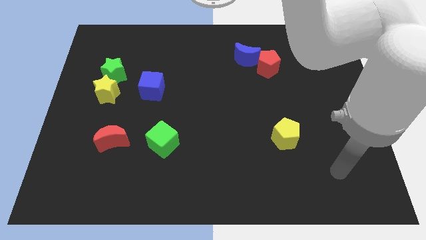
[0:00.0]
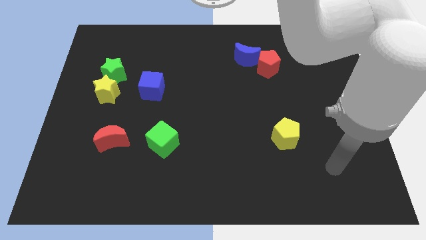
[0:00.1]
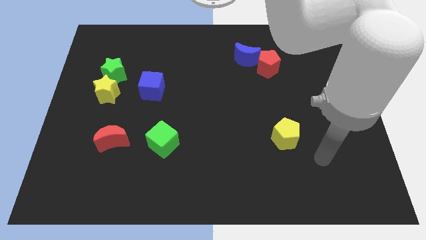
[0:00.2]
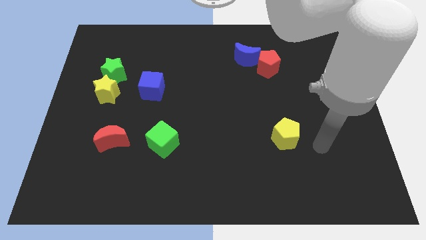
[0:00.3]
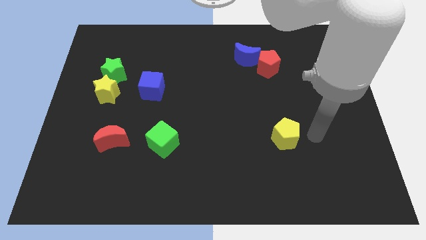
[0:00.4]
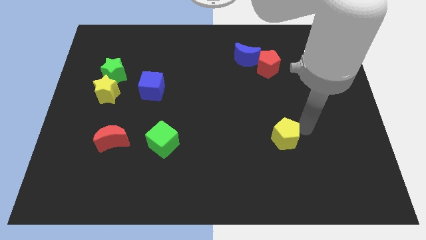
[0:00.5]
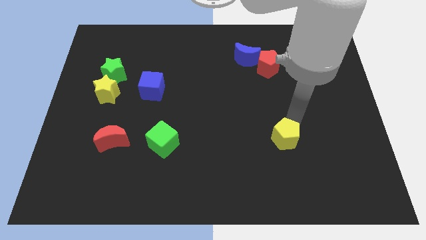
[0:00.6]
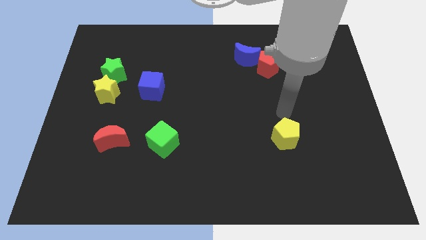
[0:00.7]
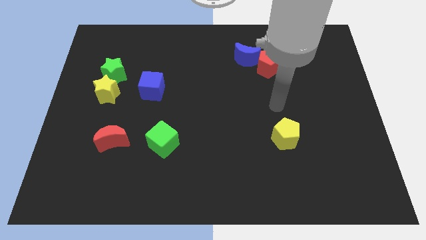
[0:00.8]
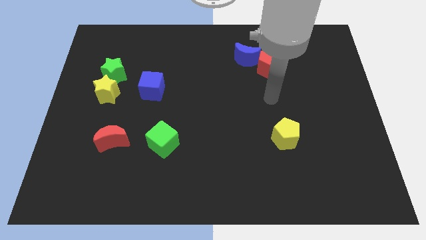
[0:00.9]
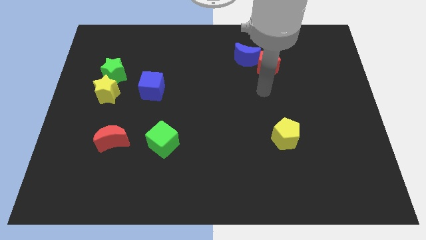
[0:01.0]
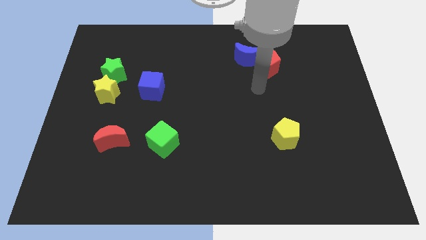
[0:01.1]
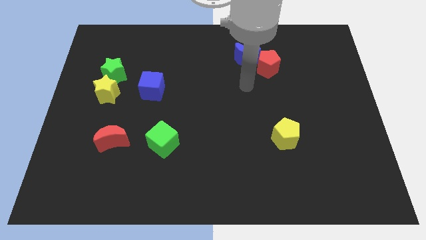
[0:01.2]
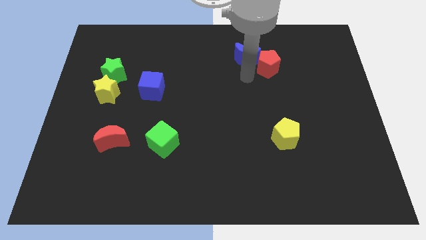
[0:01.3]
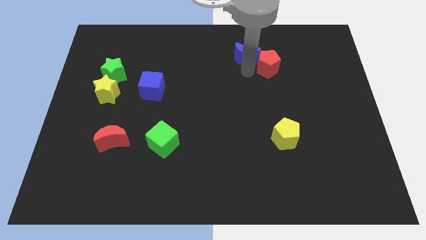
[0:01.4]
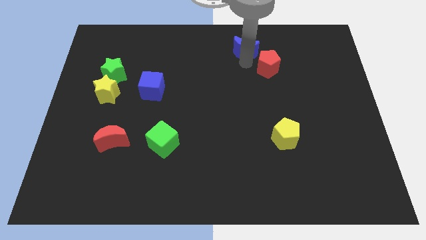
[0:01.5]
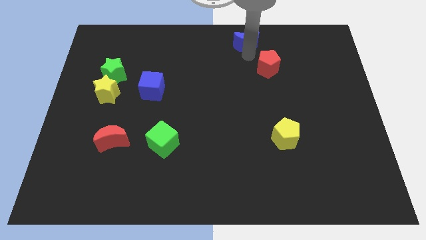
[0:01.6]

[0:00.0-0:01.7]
move the red pentagon away from the blue moon

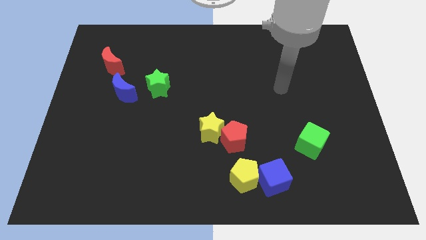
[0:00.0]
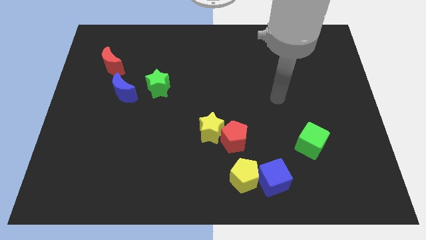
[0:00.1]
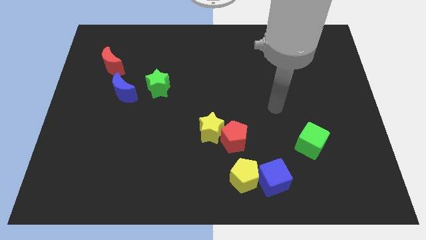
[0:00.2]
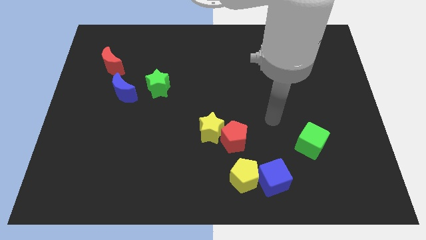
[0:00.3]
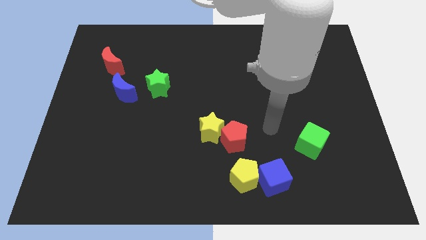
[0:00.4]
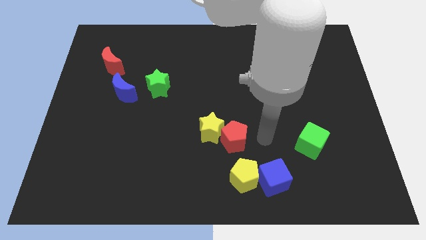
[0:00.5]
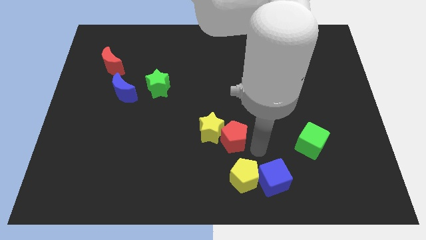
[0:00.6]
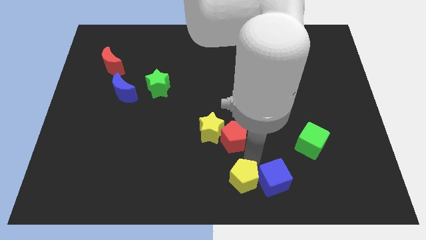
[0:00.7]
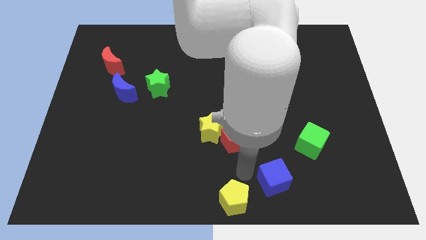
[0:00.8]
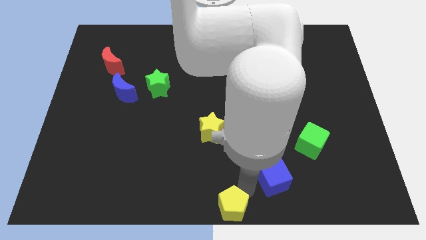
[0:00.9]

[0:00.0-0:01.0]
move the blue cube away from the yellow pentagon

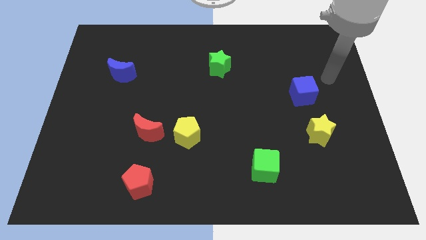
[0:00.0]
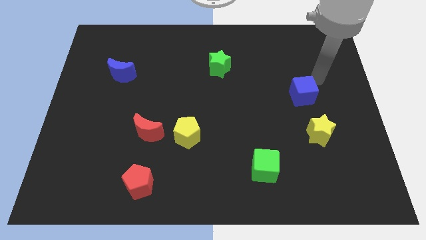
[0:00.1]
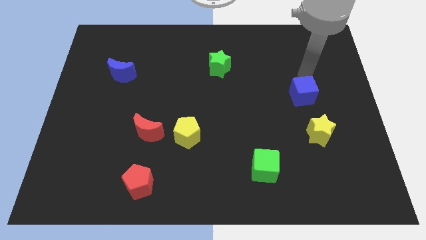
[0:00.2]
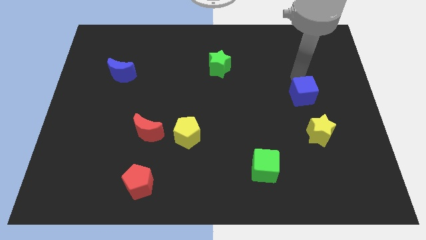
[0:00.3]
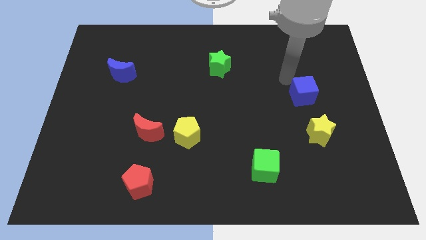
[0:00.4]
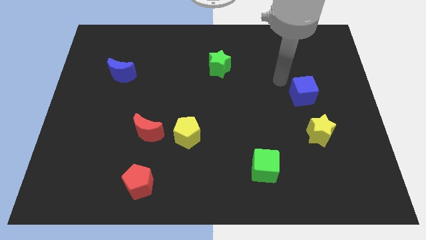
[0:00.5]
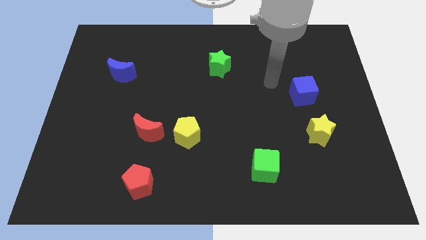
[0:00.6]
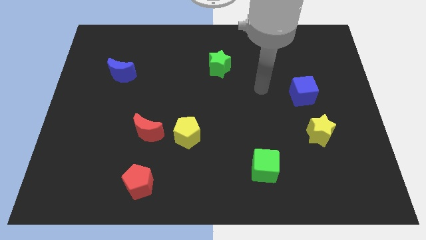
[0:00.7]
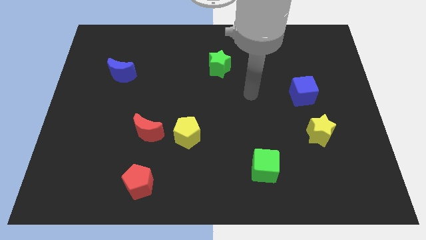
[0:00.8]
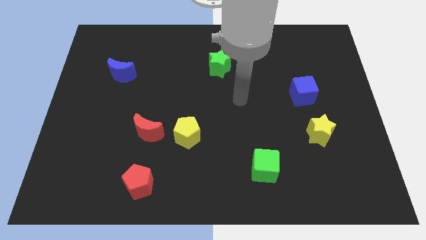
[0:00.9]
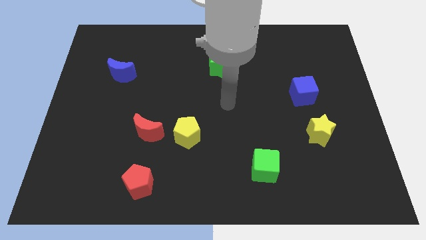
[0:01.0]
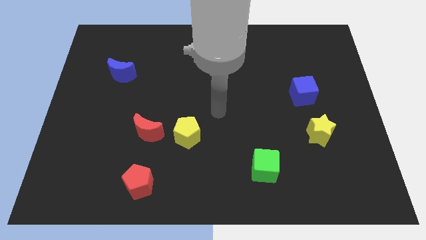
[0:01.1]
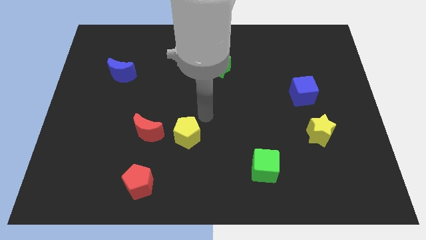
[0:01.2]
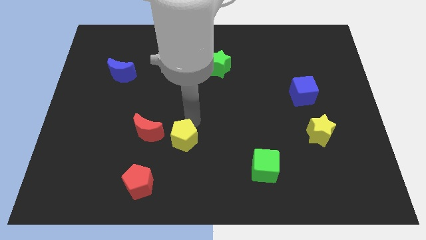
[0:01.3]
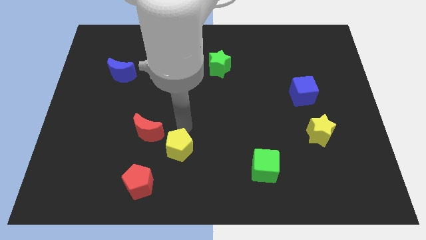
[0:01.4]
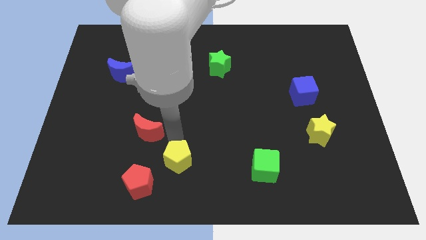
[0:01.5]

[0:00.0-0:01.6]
pull the red moon apart from the yellow pentagon

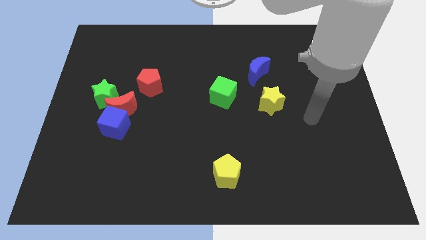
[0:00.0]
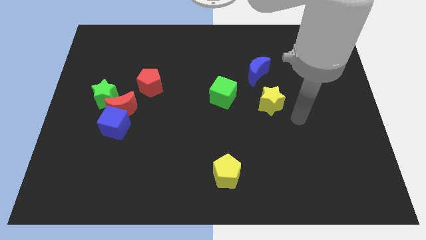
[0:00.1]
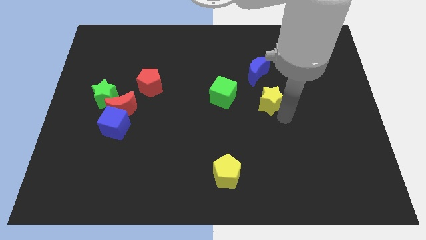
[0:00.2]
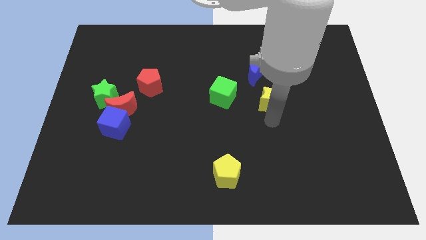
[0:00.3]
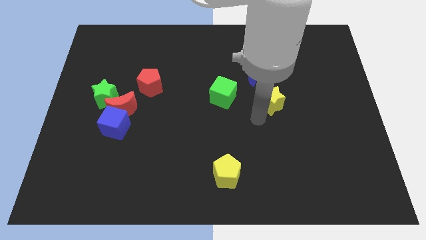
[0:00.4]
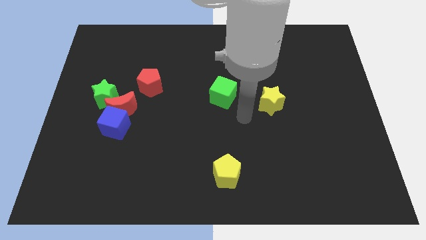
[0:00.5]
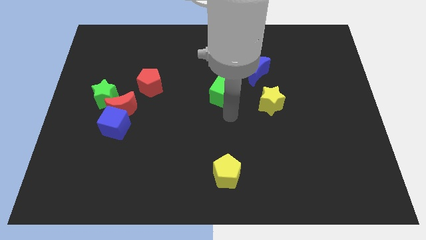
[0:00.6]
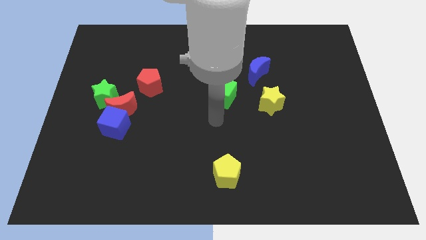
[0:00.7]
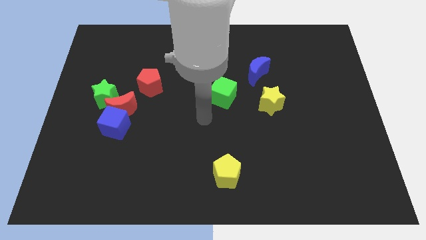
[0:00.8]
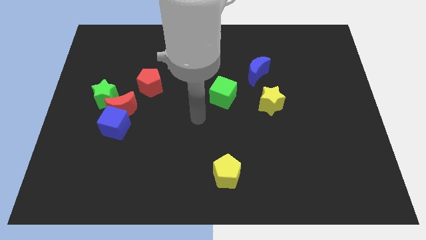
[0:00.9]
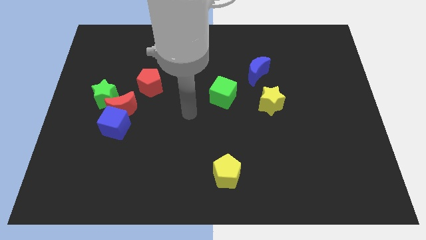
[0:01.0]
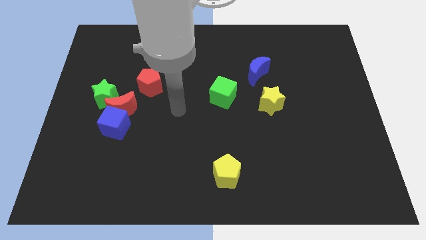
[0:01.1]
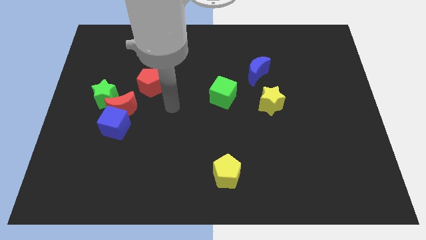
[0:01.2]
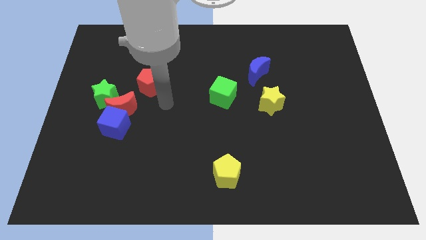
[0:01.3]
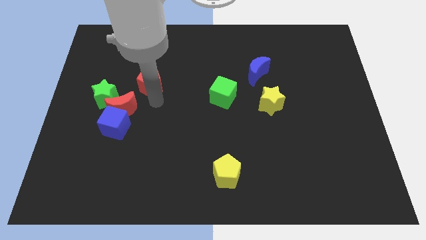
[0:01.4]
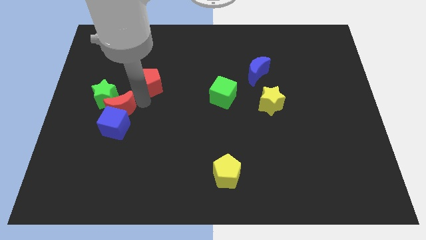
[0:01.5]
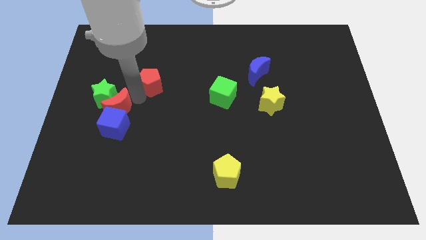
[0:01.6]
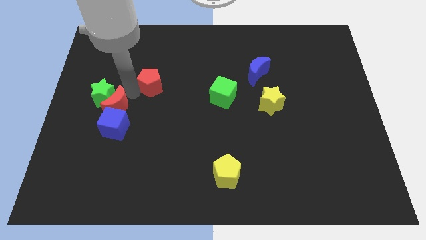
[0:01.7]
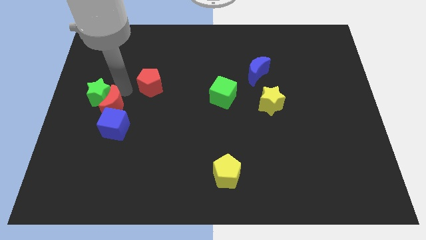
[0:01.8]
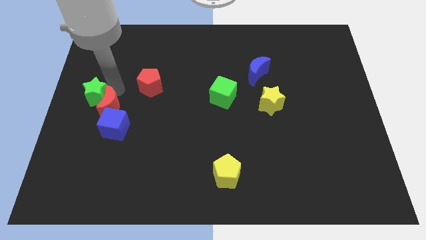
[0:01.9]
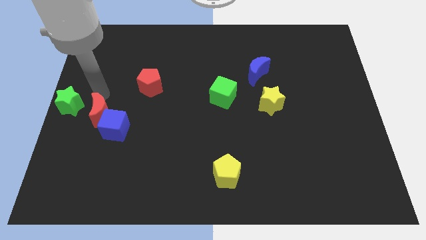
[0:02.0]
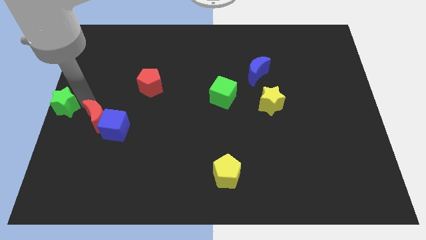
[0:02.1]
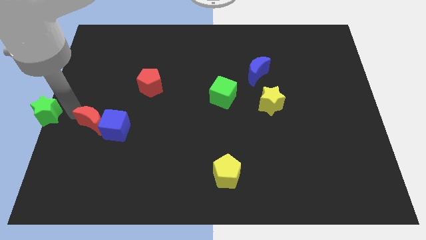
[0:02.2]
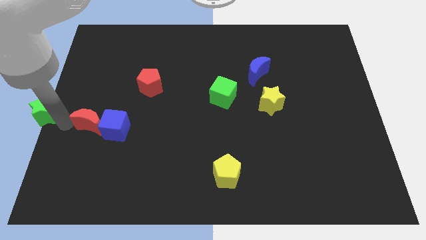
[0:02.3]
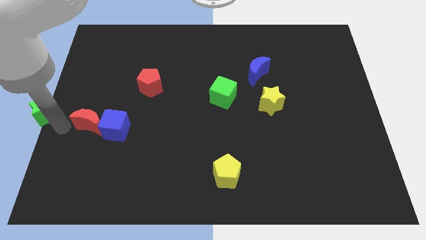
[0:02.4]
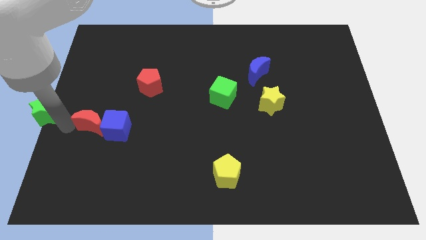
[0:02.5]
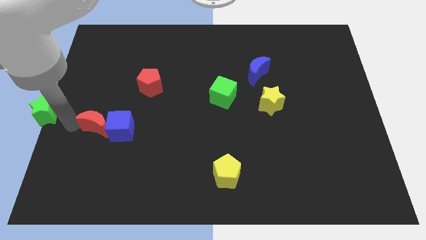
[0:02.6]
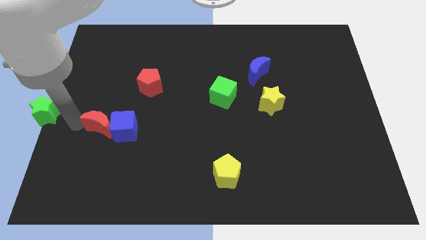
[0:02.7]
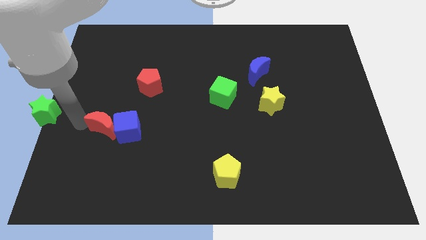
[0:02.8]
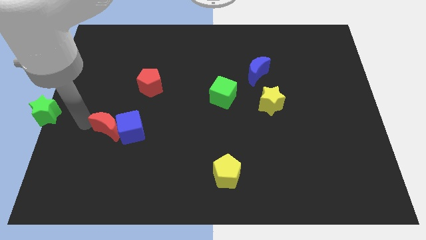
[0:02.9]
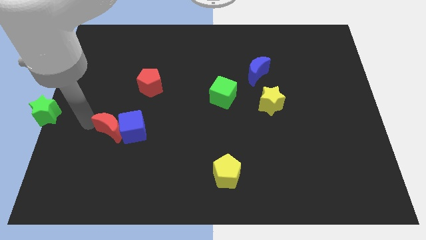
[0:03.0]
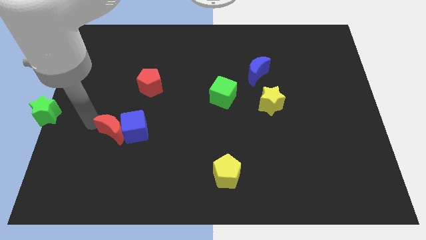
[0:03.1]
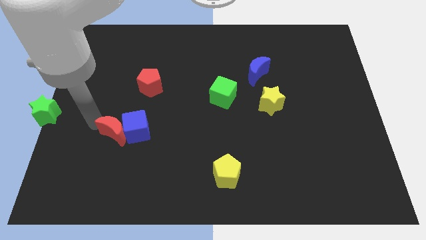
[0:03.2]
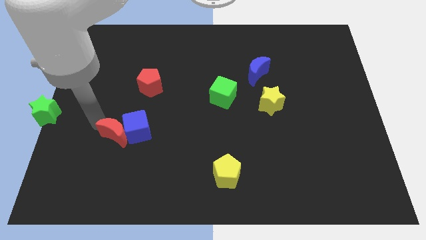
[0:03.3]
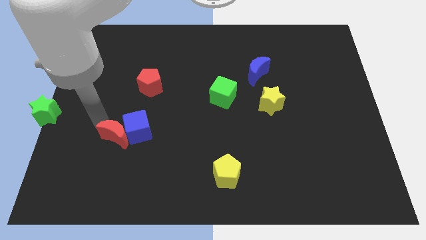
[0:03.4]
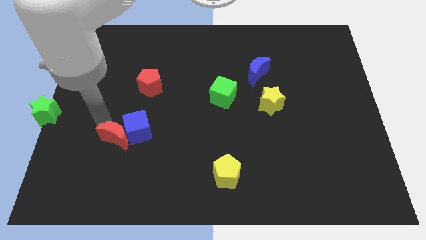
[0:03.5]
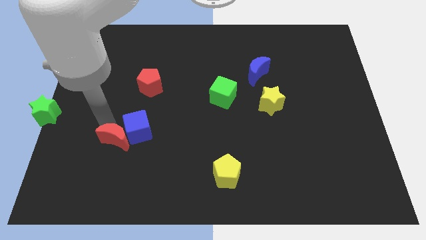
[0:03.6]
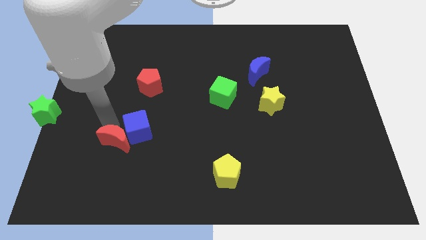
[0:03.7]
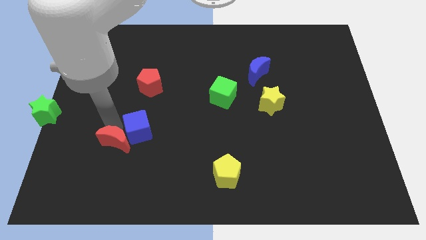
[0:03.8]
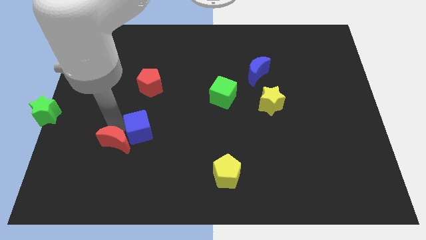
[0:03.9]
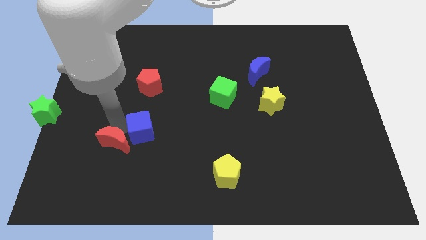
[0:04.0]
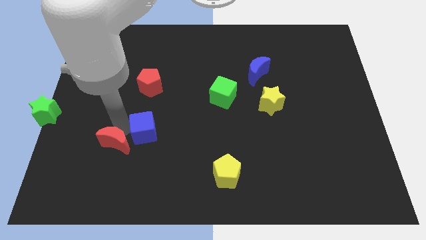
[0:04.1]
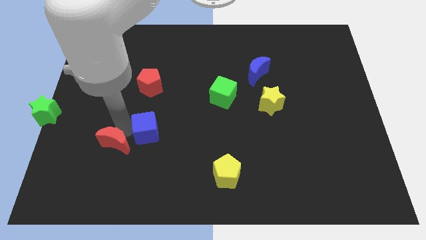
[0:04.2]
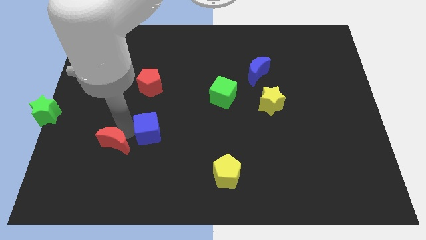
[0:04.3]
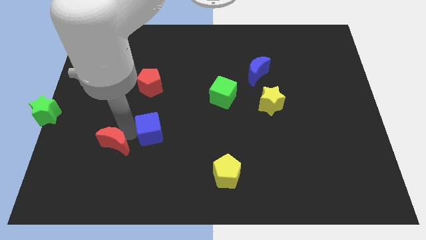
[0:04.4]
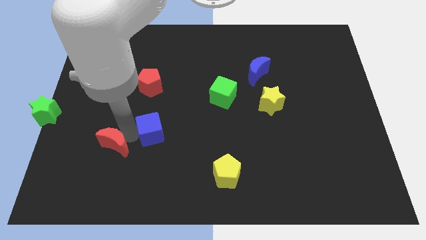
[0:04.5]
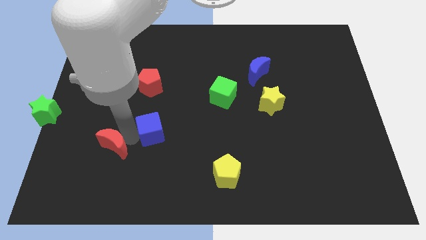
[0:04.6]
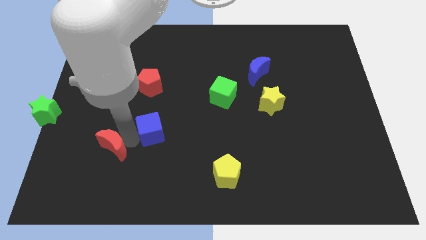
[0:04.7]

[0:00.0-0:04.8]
separate the red moon from the blue cube, green star, and red pentagon

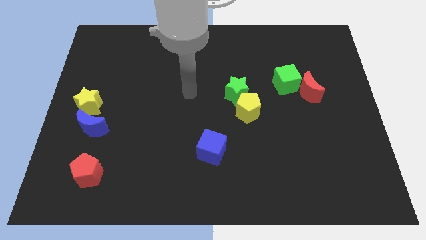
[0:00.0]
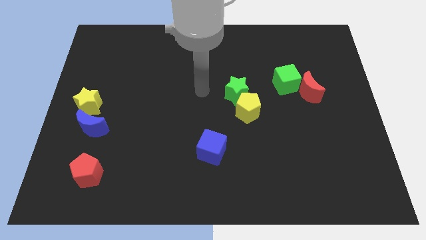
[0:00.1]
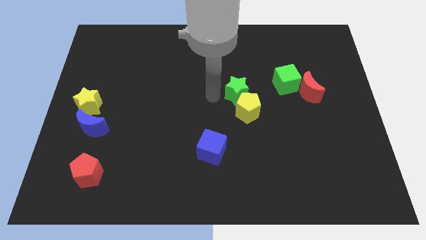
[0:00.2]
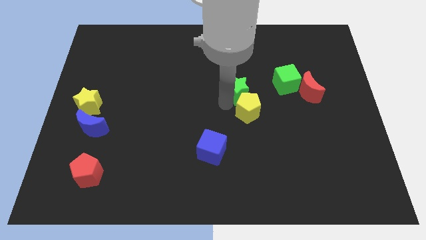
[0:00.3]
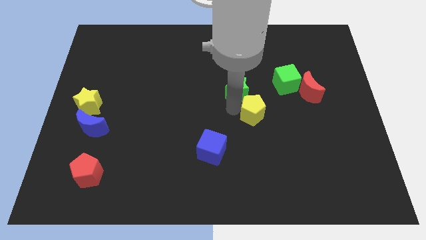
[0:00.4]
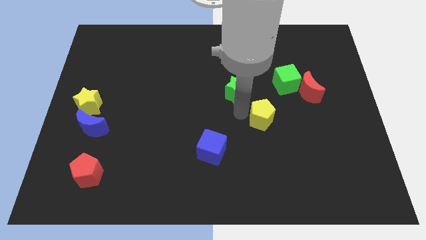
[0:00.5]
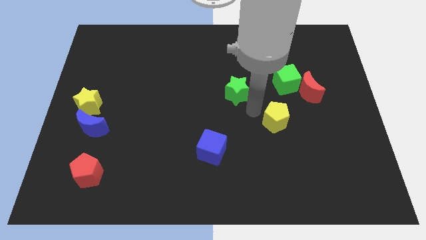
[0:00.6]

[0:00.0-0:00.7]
pull the green star apart from the yellow pentagon
